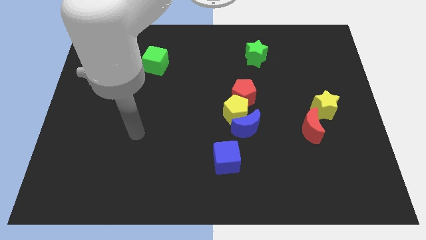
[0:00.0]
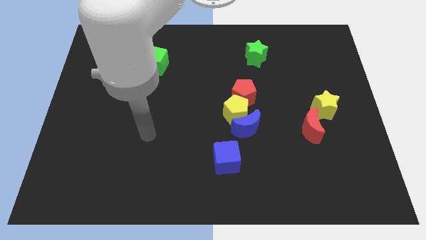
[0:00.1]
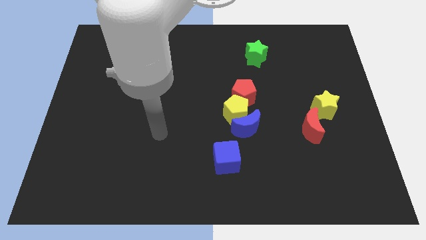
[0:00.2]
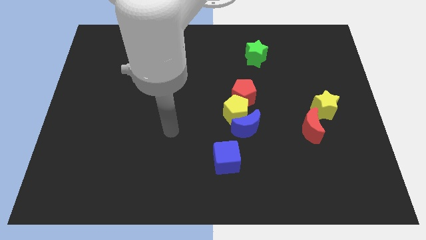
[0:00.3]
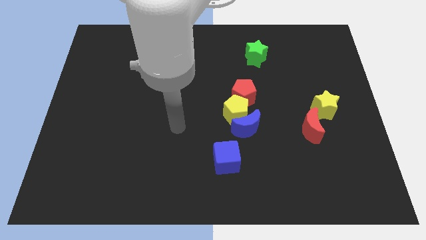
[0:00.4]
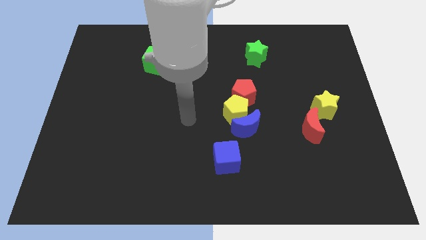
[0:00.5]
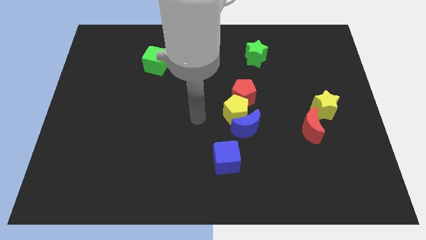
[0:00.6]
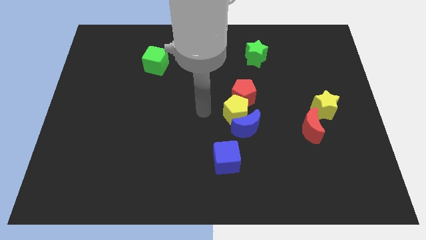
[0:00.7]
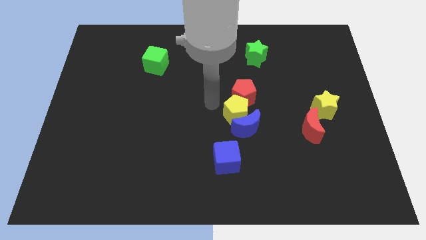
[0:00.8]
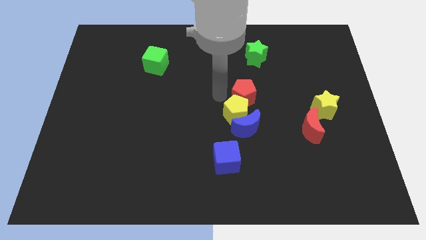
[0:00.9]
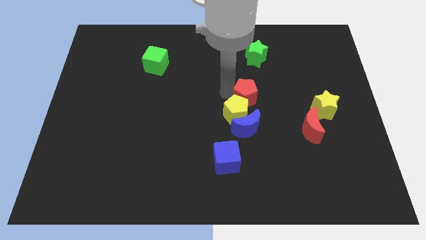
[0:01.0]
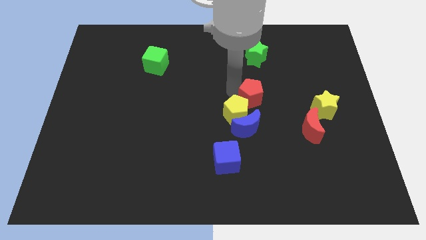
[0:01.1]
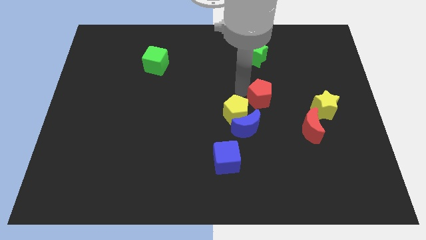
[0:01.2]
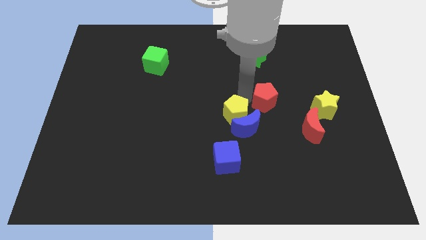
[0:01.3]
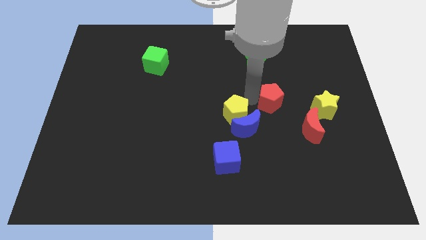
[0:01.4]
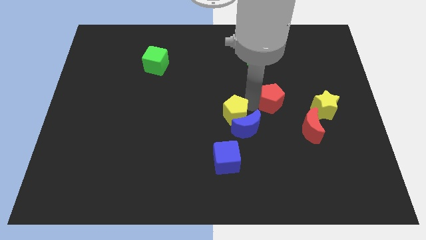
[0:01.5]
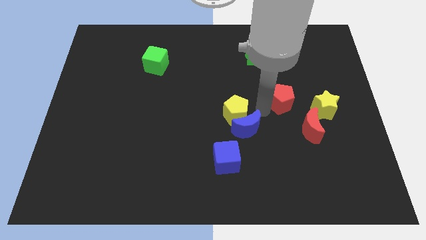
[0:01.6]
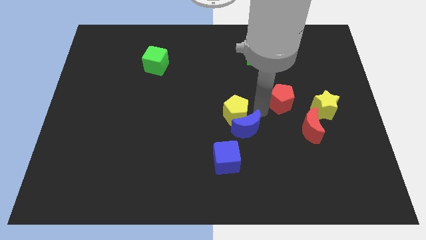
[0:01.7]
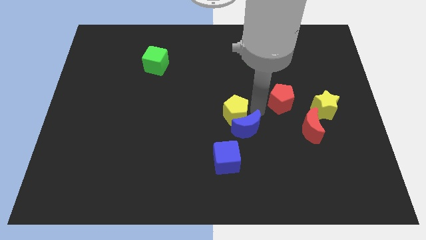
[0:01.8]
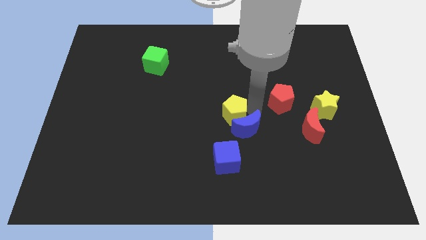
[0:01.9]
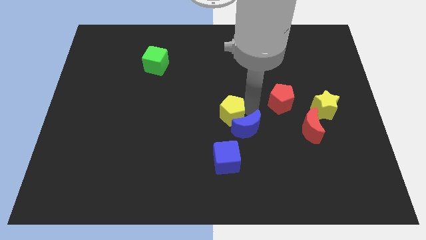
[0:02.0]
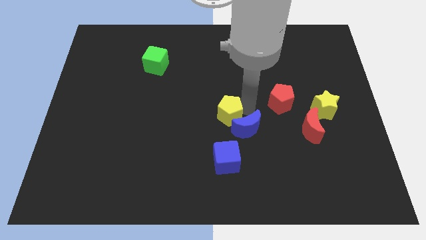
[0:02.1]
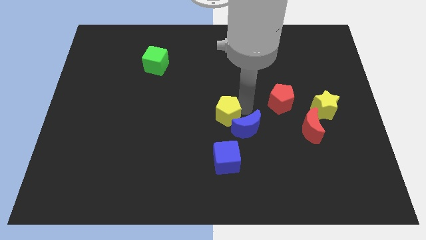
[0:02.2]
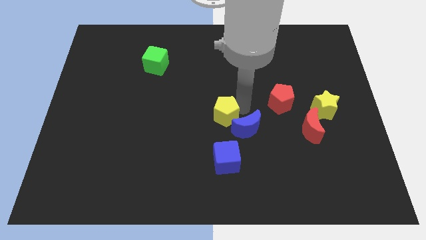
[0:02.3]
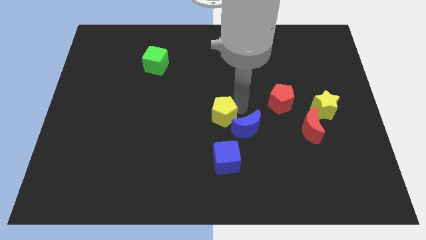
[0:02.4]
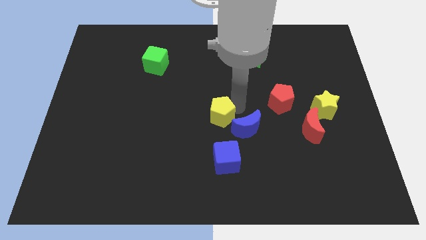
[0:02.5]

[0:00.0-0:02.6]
pull the yellow pentagon apart from the blue moon and red pentagon

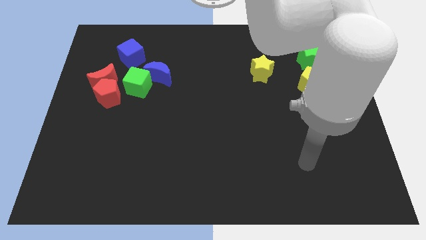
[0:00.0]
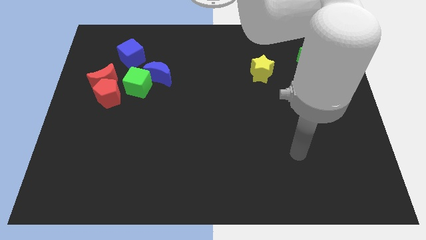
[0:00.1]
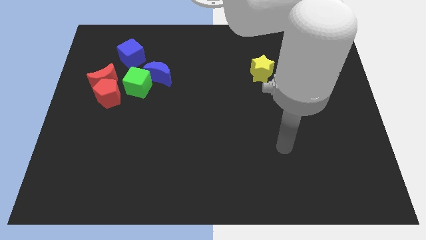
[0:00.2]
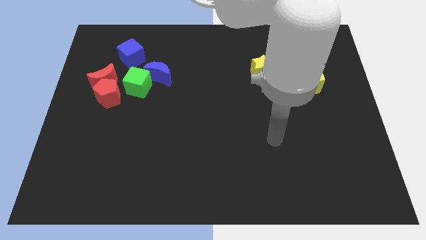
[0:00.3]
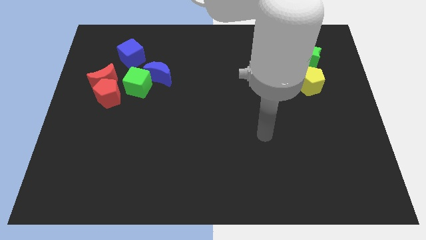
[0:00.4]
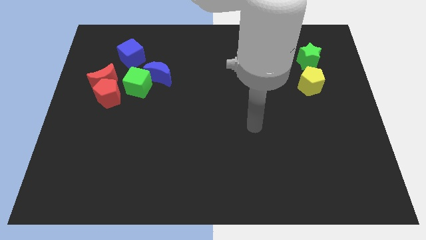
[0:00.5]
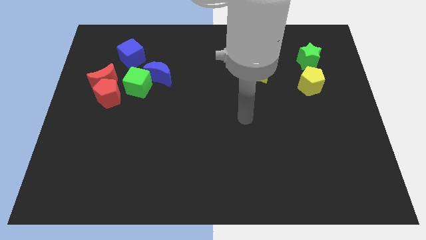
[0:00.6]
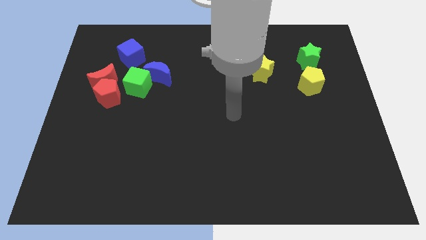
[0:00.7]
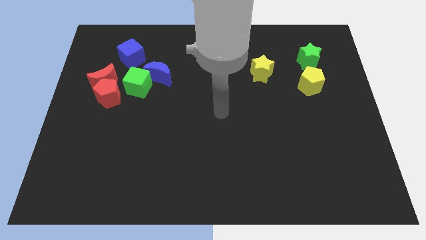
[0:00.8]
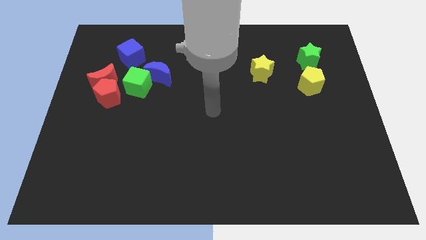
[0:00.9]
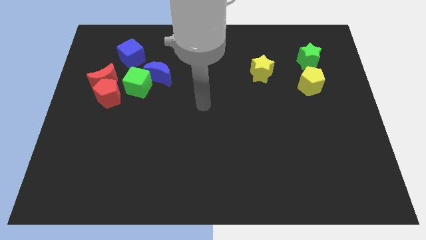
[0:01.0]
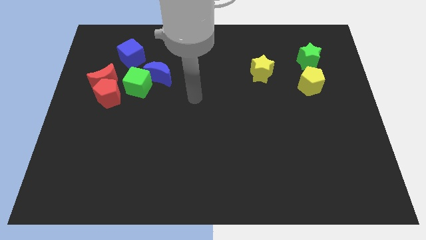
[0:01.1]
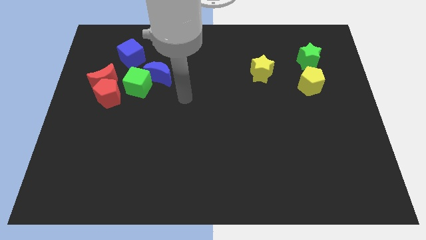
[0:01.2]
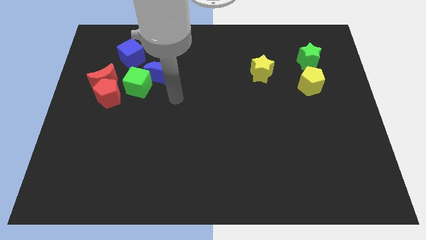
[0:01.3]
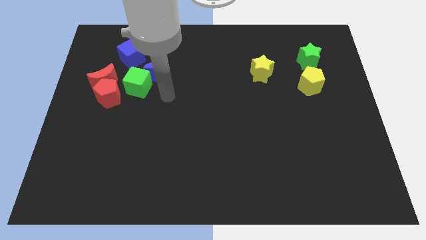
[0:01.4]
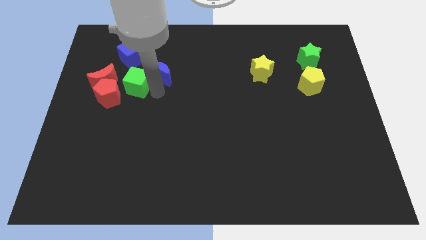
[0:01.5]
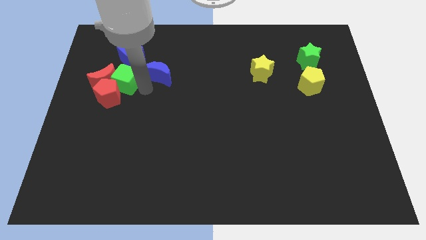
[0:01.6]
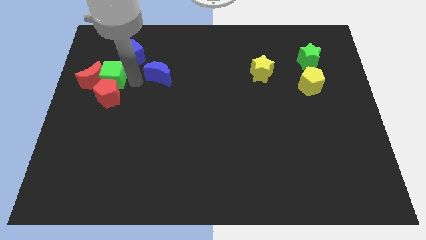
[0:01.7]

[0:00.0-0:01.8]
pull the blue moon apart from the green cube

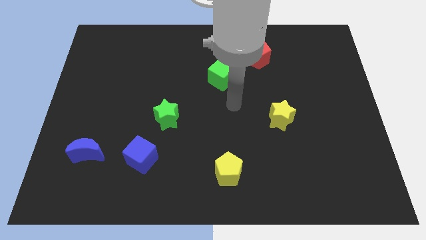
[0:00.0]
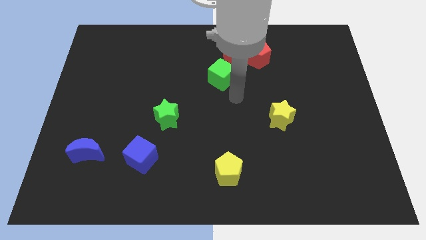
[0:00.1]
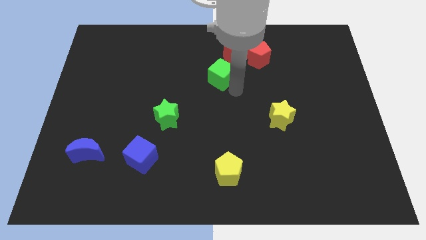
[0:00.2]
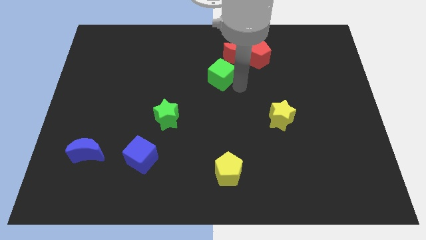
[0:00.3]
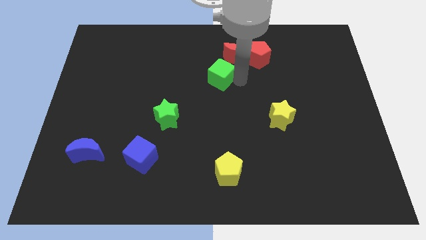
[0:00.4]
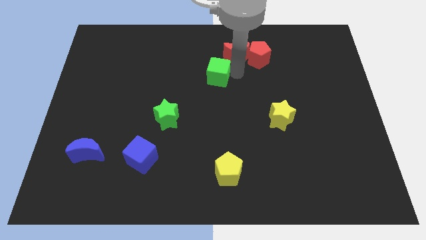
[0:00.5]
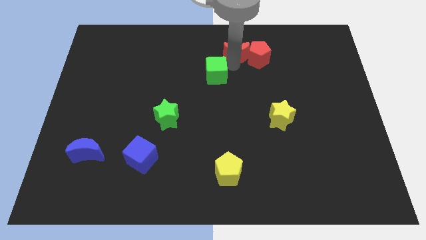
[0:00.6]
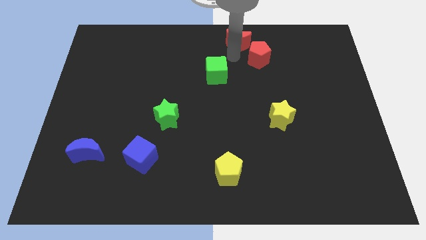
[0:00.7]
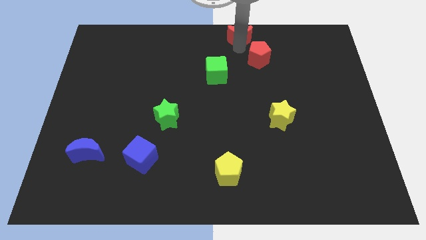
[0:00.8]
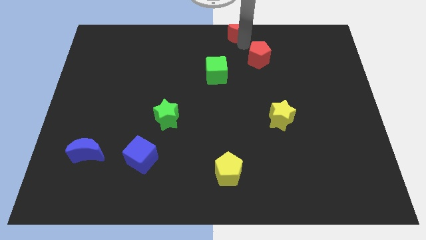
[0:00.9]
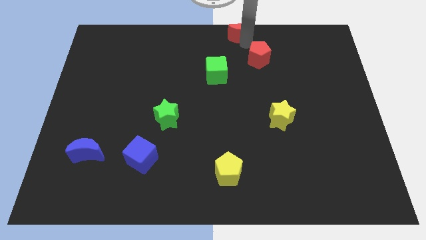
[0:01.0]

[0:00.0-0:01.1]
pull the red pentagon apart from the red moon

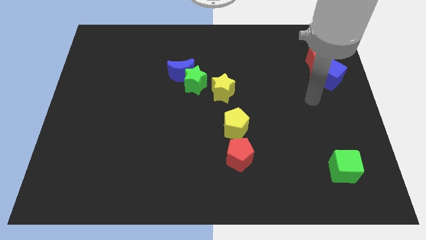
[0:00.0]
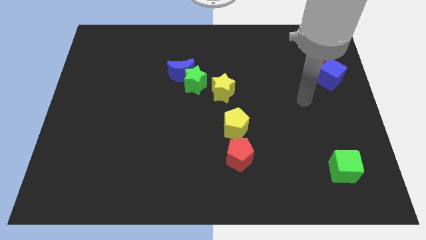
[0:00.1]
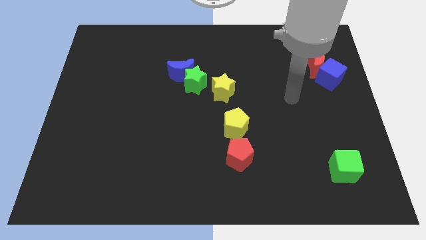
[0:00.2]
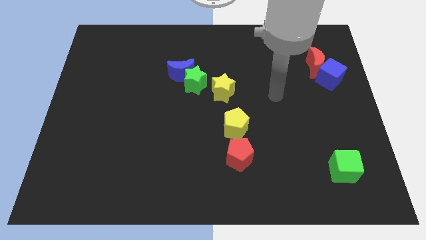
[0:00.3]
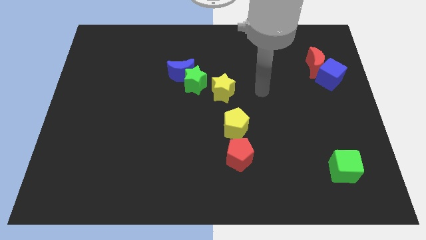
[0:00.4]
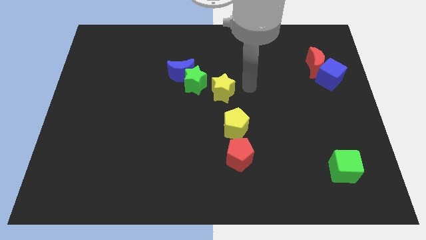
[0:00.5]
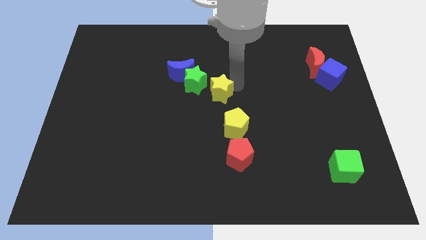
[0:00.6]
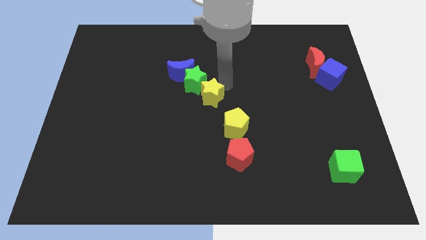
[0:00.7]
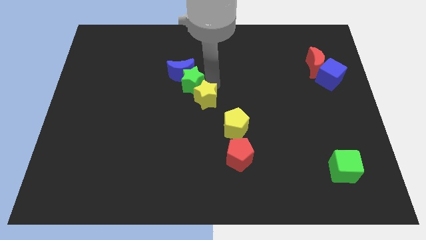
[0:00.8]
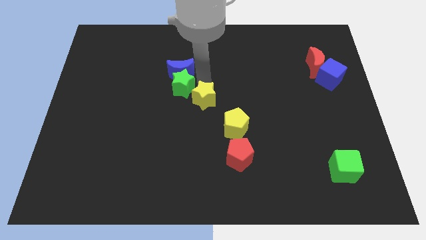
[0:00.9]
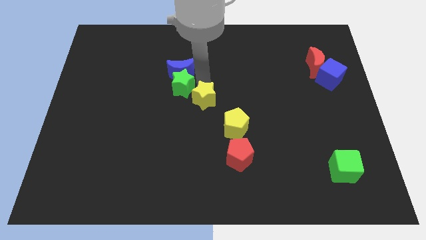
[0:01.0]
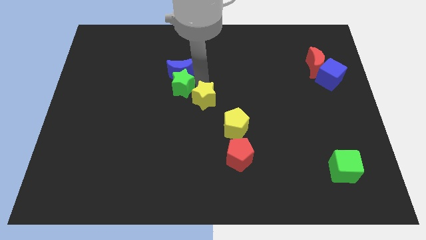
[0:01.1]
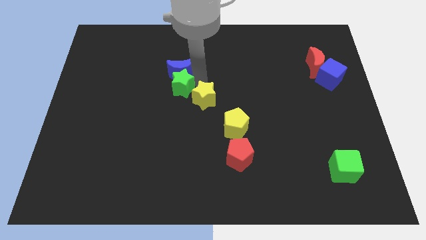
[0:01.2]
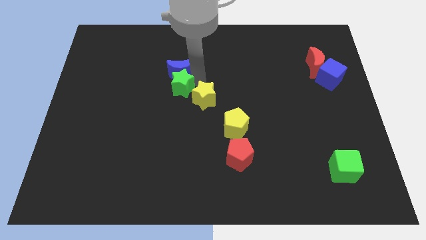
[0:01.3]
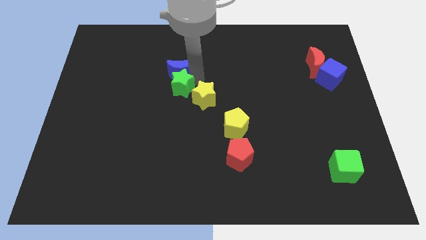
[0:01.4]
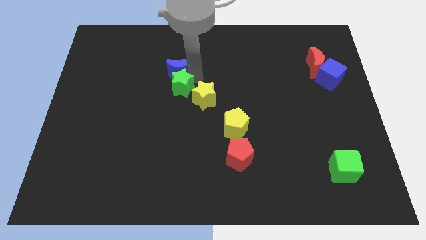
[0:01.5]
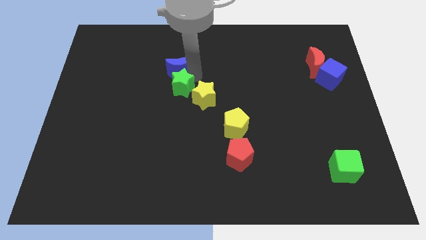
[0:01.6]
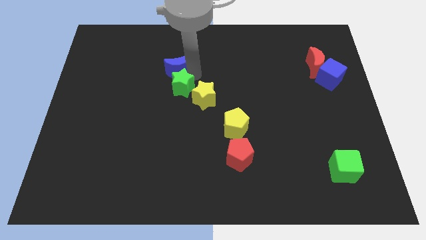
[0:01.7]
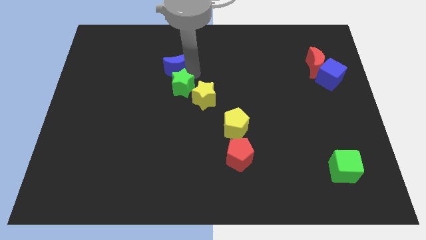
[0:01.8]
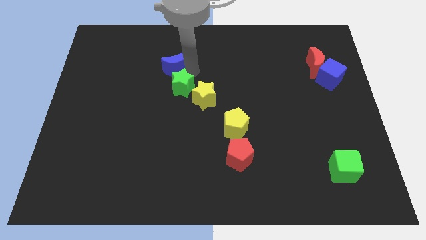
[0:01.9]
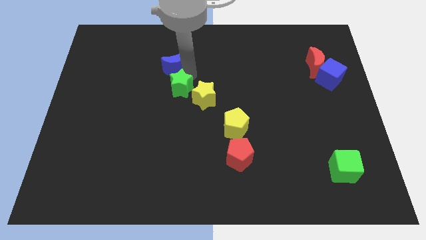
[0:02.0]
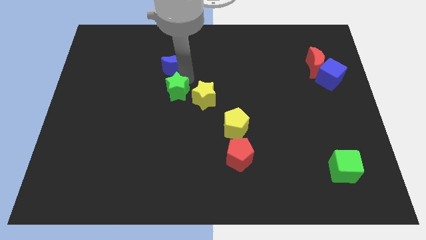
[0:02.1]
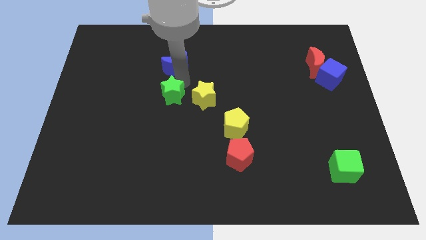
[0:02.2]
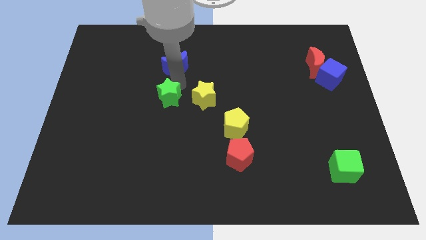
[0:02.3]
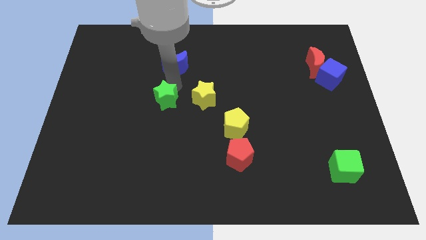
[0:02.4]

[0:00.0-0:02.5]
separate the blue moon from the green star

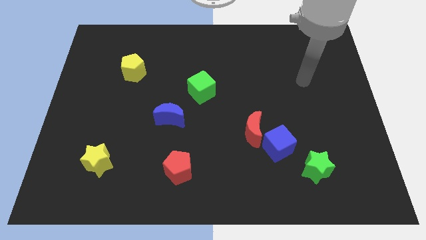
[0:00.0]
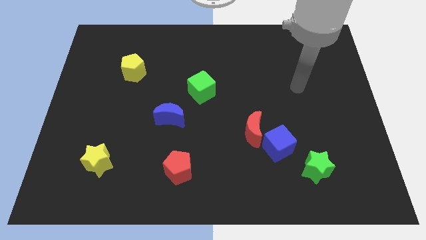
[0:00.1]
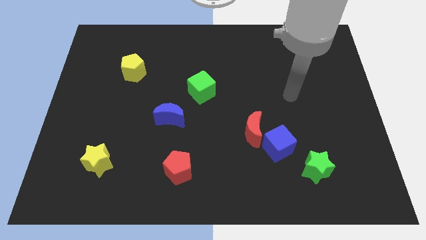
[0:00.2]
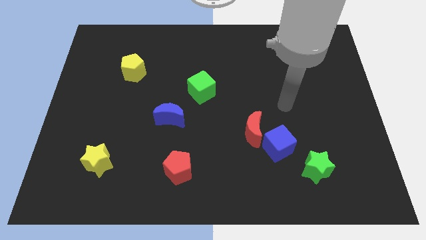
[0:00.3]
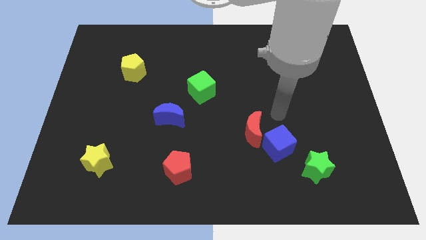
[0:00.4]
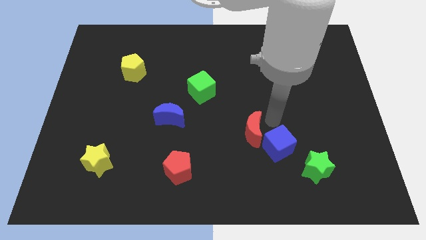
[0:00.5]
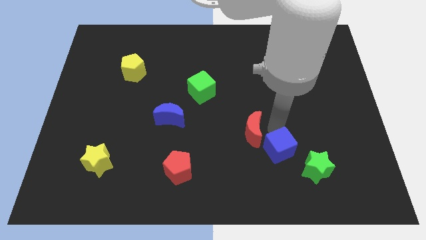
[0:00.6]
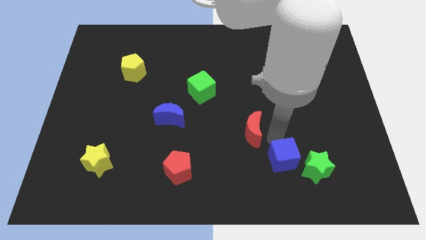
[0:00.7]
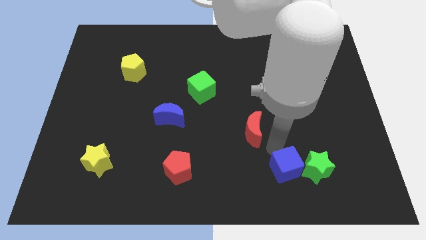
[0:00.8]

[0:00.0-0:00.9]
separate the red moon from the blue cube

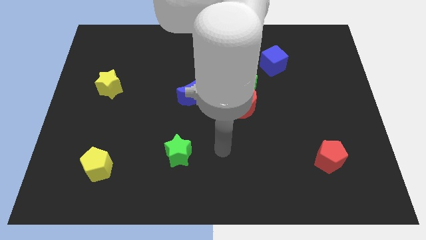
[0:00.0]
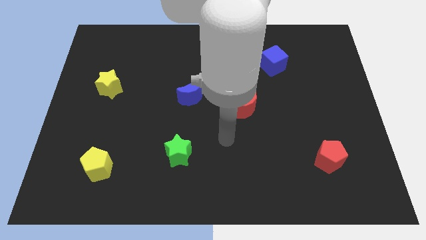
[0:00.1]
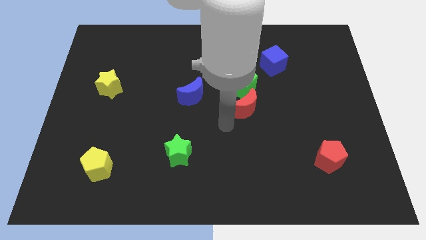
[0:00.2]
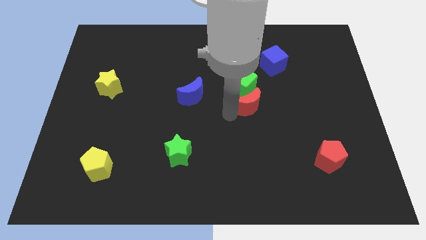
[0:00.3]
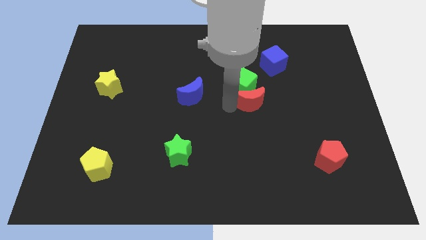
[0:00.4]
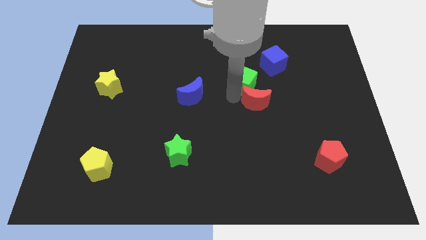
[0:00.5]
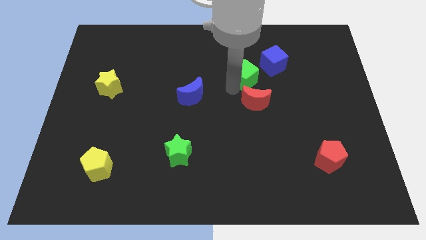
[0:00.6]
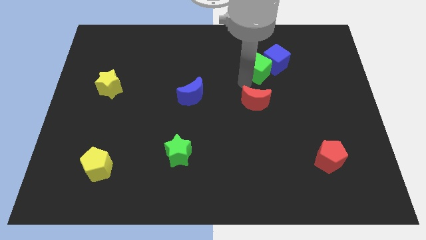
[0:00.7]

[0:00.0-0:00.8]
separate the red moon from the green cube
